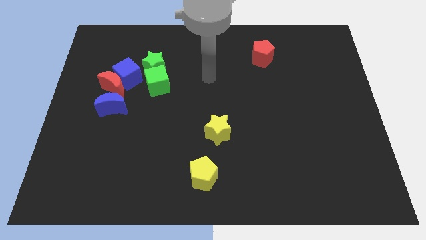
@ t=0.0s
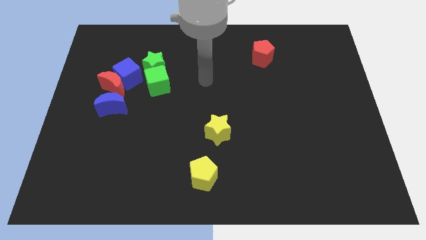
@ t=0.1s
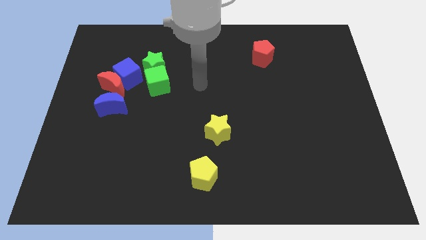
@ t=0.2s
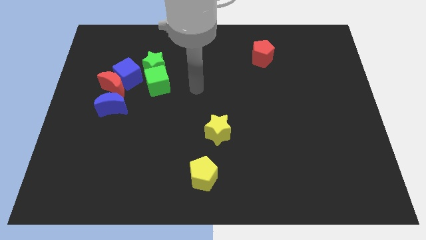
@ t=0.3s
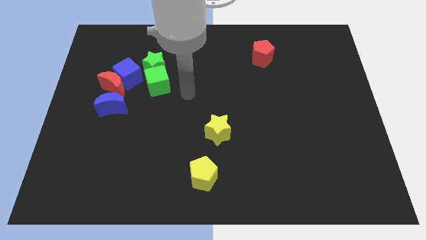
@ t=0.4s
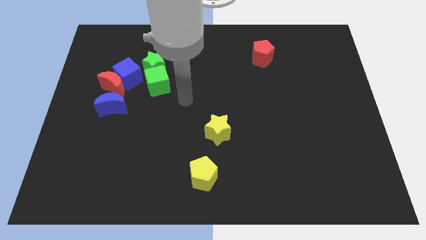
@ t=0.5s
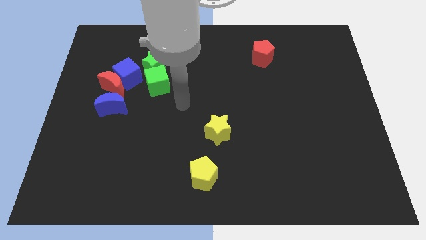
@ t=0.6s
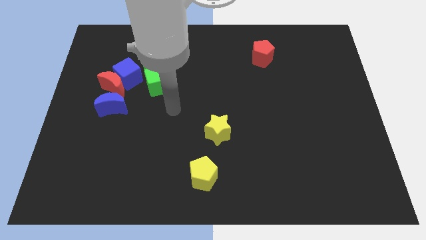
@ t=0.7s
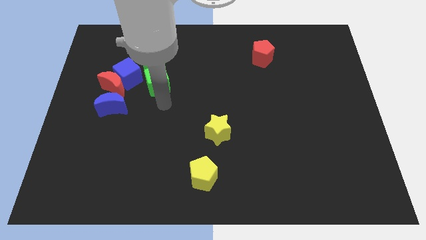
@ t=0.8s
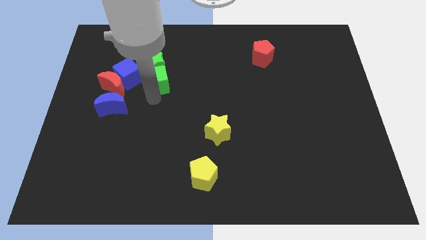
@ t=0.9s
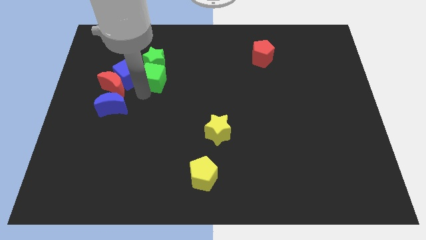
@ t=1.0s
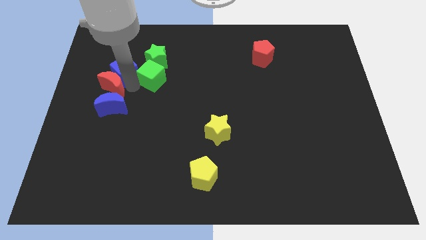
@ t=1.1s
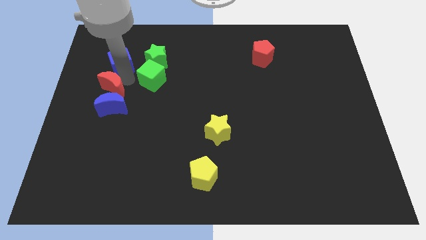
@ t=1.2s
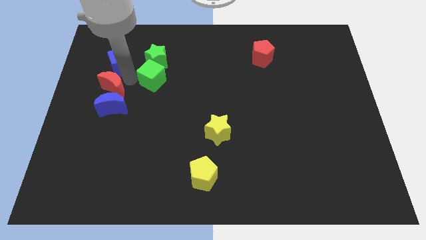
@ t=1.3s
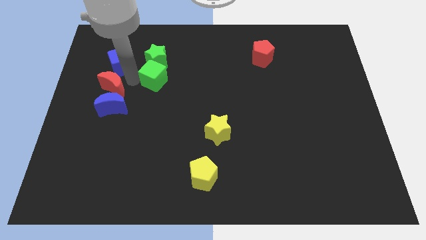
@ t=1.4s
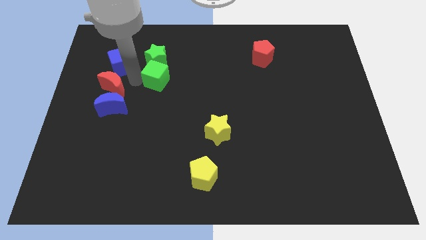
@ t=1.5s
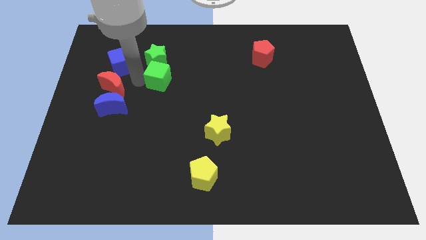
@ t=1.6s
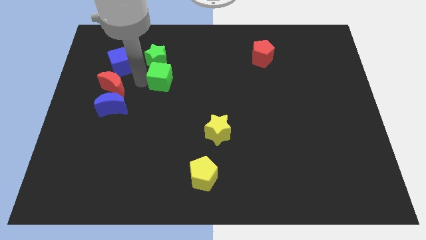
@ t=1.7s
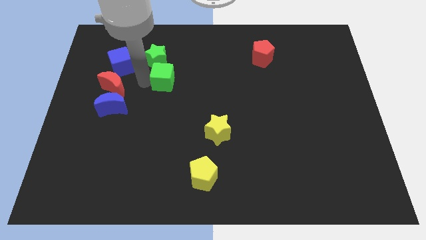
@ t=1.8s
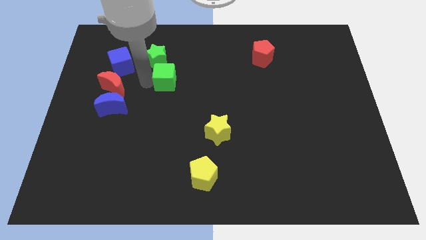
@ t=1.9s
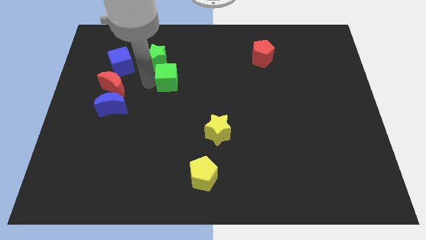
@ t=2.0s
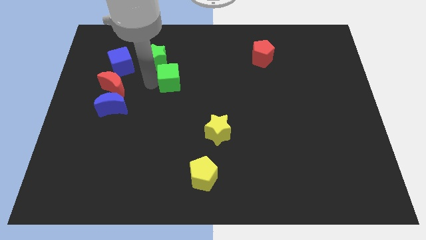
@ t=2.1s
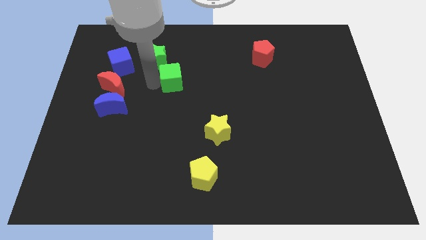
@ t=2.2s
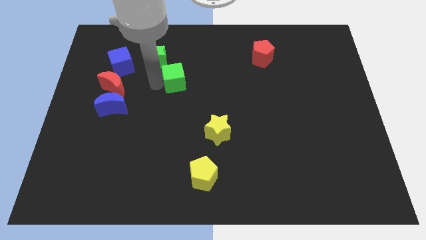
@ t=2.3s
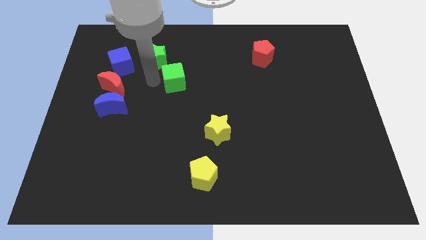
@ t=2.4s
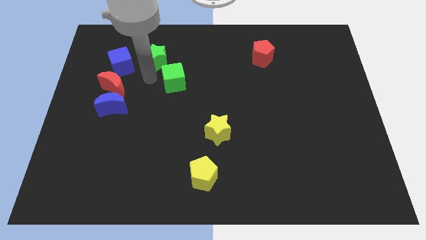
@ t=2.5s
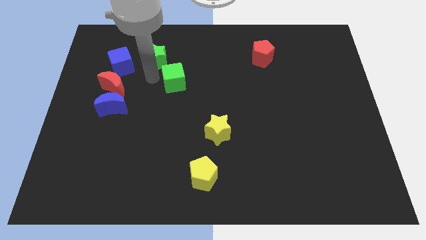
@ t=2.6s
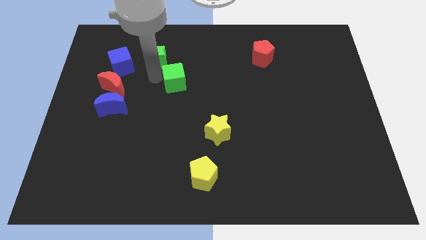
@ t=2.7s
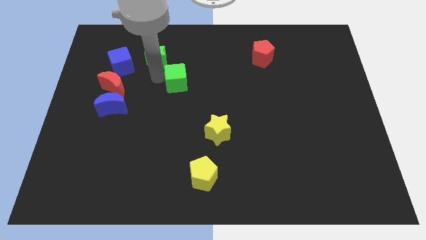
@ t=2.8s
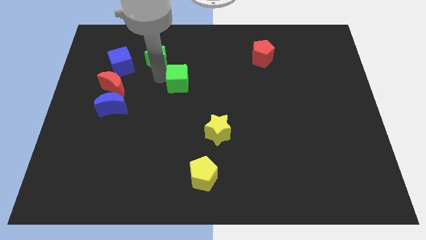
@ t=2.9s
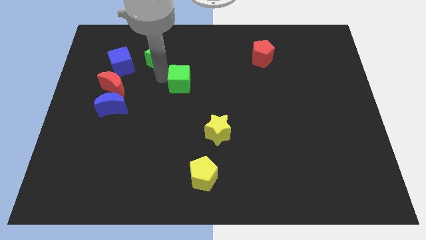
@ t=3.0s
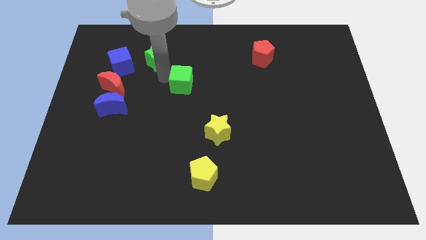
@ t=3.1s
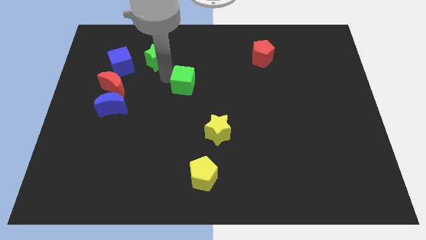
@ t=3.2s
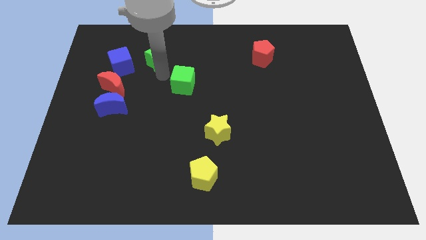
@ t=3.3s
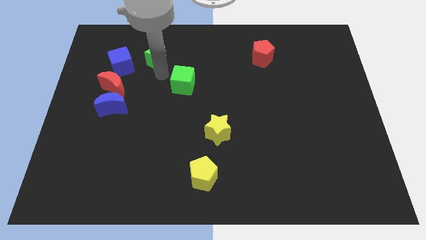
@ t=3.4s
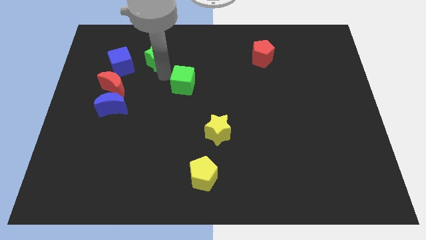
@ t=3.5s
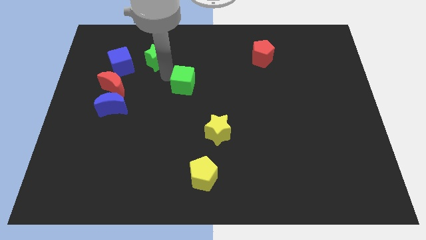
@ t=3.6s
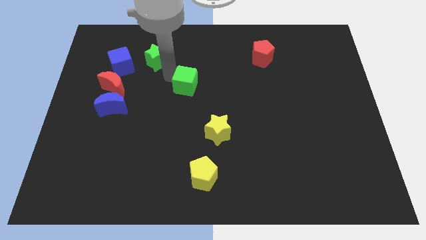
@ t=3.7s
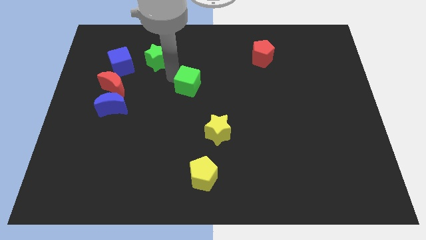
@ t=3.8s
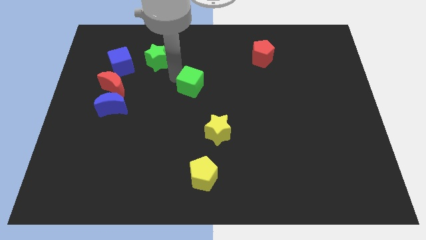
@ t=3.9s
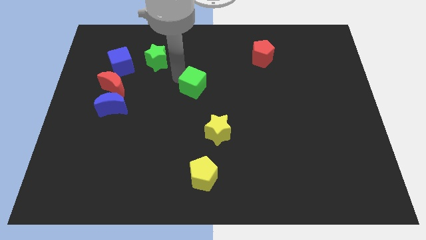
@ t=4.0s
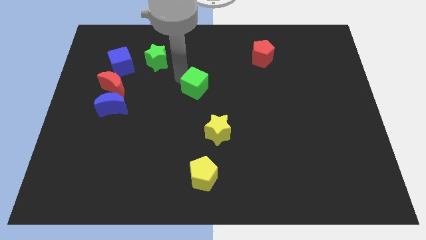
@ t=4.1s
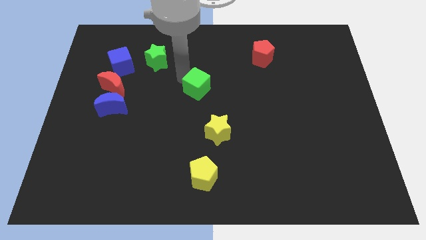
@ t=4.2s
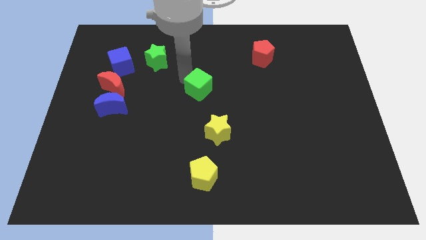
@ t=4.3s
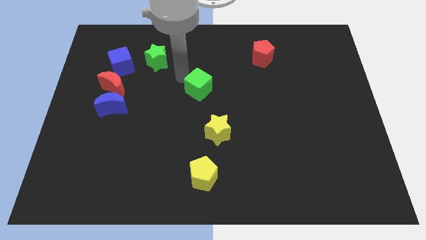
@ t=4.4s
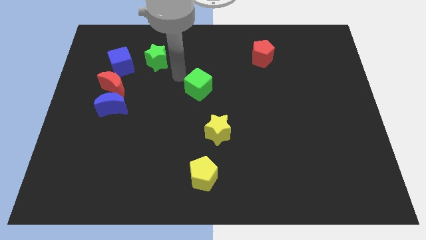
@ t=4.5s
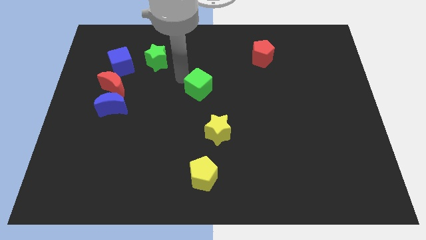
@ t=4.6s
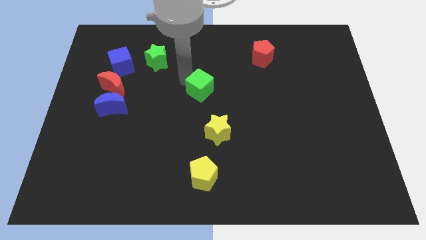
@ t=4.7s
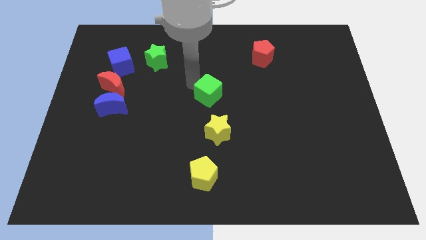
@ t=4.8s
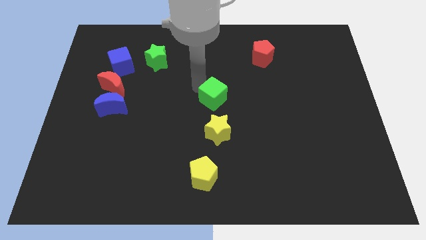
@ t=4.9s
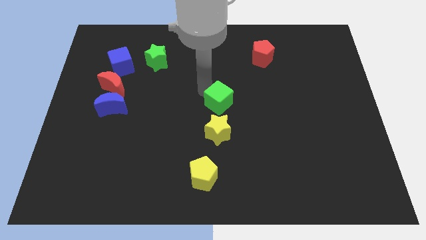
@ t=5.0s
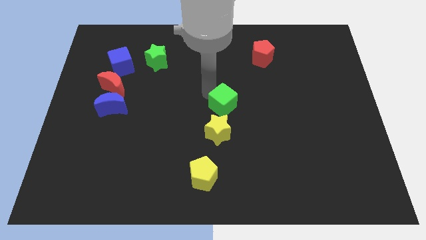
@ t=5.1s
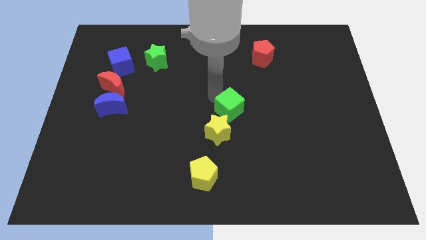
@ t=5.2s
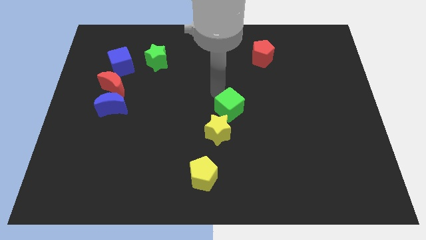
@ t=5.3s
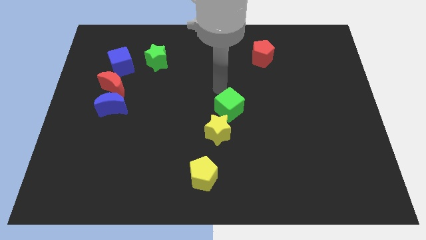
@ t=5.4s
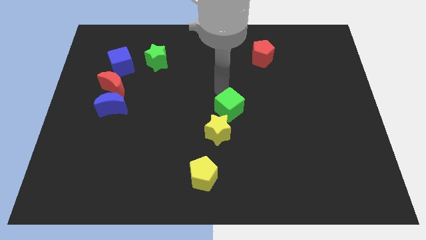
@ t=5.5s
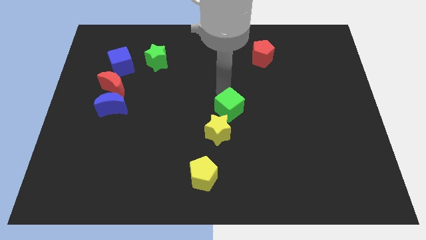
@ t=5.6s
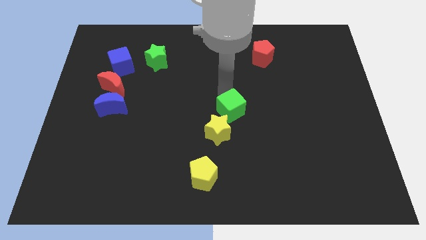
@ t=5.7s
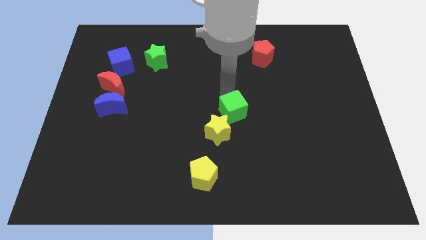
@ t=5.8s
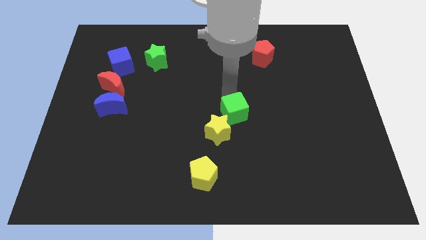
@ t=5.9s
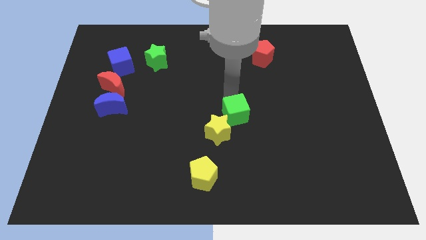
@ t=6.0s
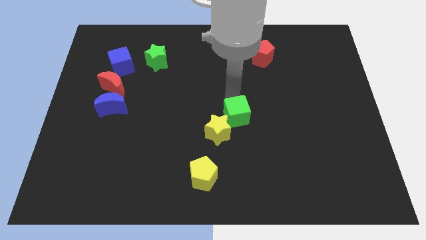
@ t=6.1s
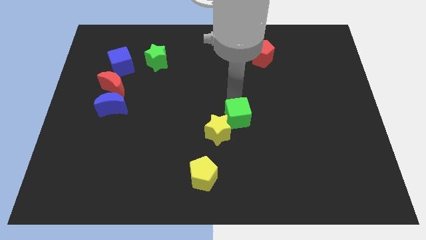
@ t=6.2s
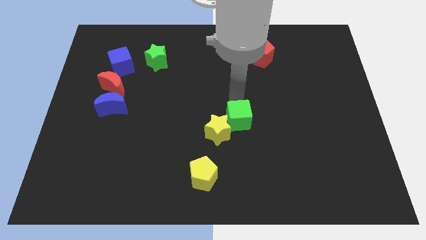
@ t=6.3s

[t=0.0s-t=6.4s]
move the green cube down and to the right diagonally

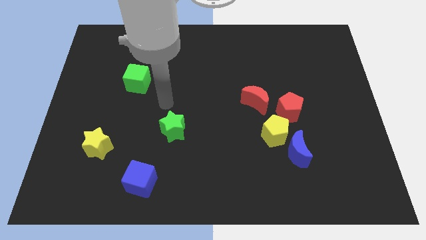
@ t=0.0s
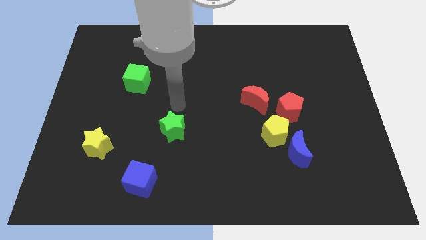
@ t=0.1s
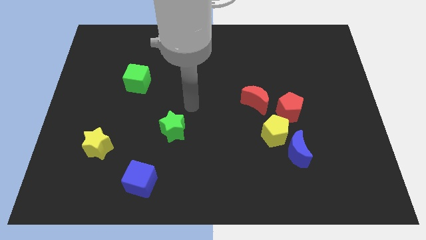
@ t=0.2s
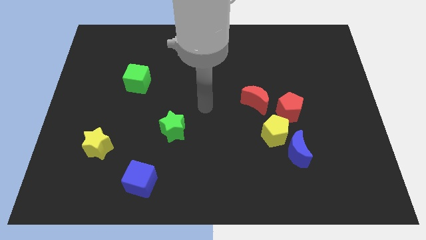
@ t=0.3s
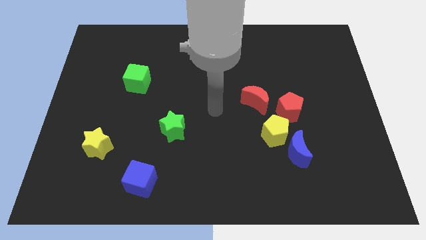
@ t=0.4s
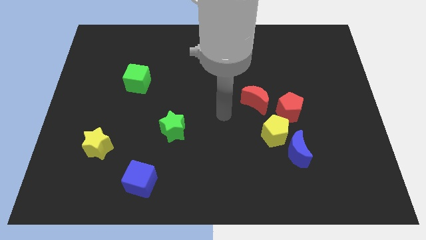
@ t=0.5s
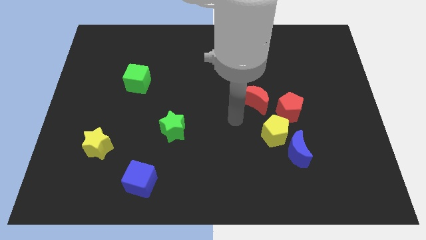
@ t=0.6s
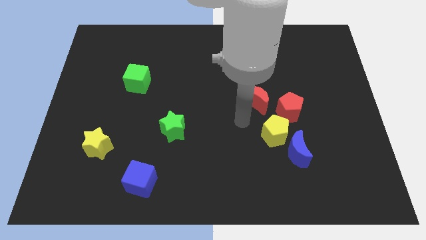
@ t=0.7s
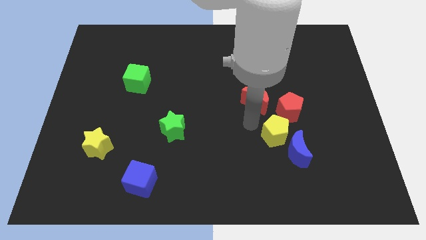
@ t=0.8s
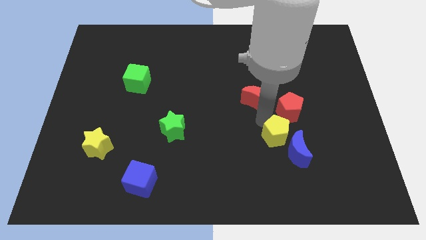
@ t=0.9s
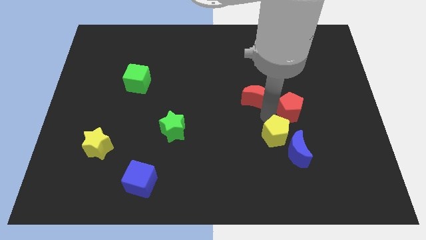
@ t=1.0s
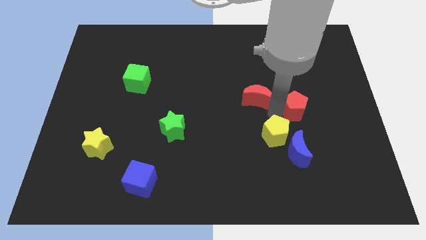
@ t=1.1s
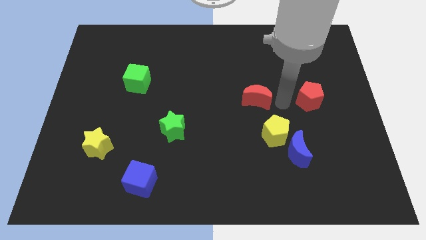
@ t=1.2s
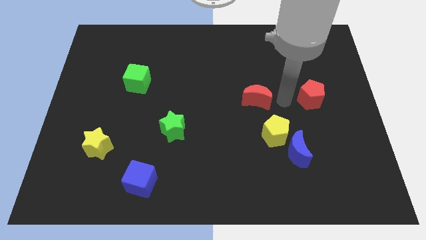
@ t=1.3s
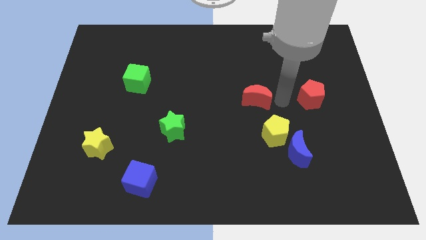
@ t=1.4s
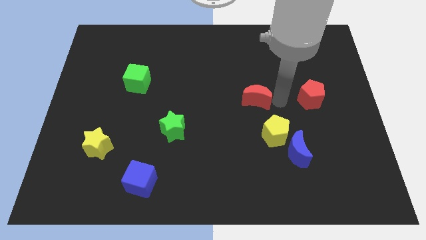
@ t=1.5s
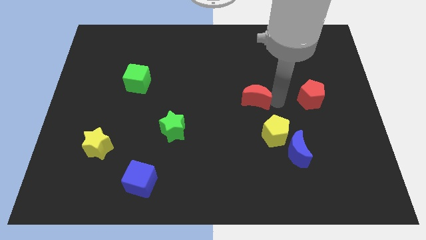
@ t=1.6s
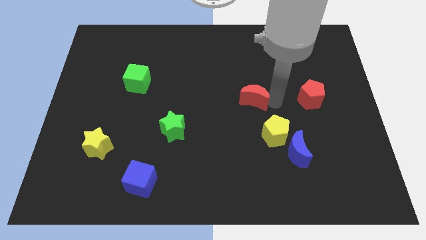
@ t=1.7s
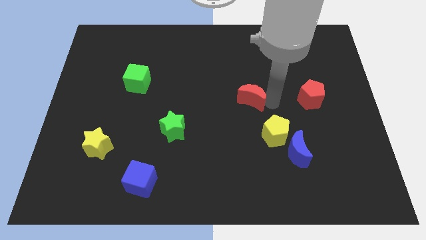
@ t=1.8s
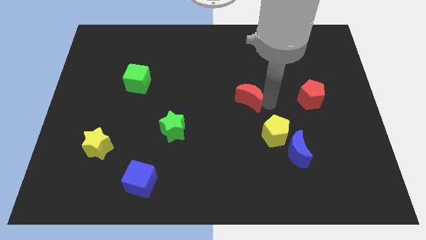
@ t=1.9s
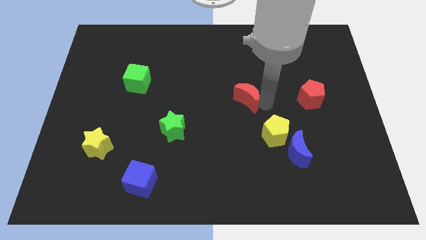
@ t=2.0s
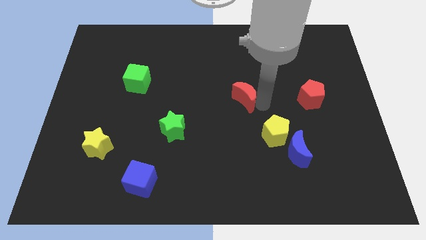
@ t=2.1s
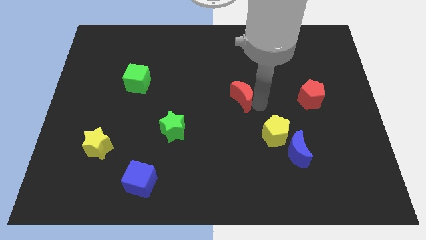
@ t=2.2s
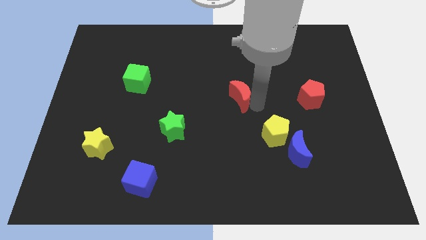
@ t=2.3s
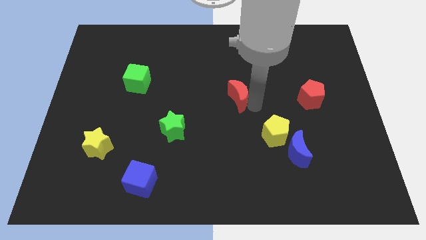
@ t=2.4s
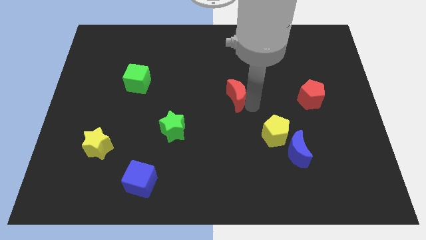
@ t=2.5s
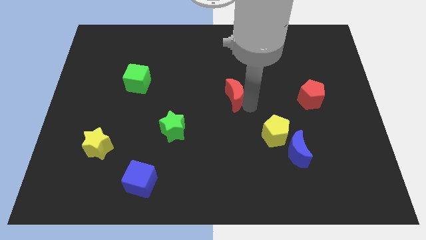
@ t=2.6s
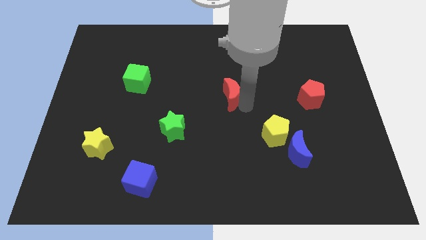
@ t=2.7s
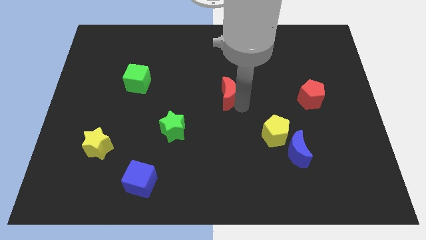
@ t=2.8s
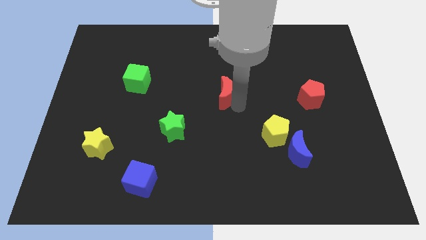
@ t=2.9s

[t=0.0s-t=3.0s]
slide the red moon a bit to the left
